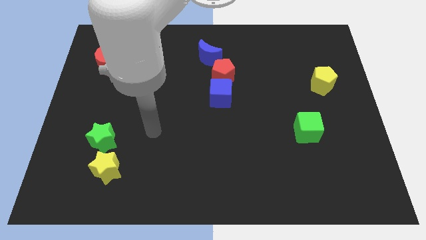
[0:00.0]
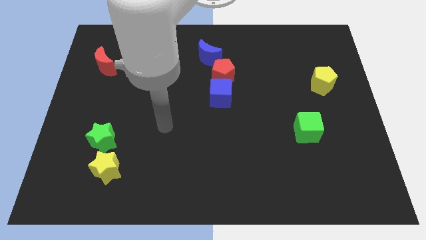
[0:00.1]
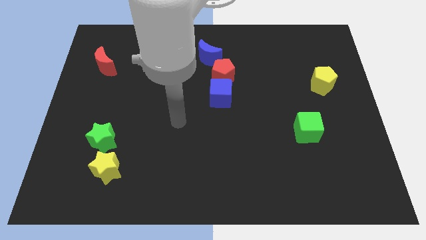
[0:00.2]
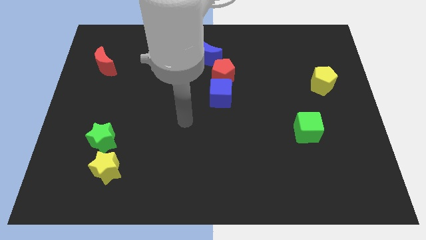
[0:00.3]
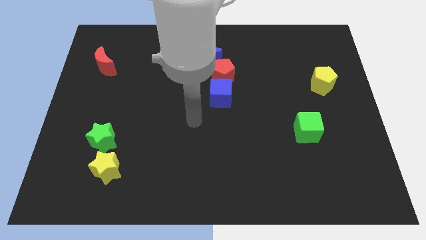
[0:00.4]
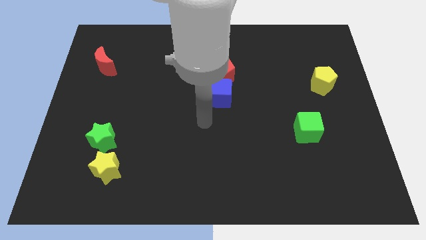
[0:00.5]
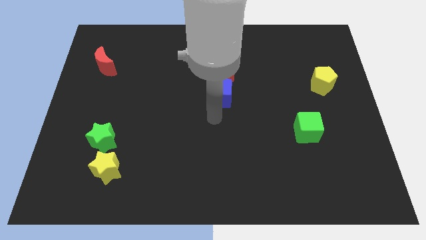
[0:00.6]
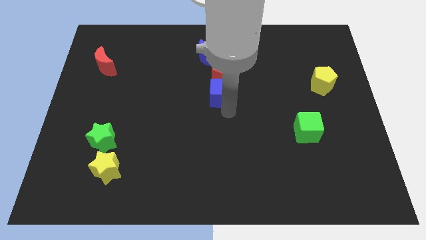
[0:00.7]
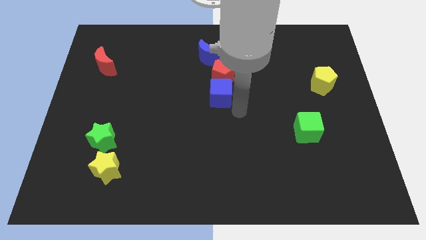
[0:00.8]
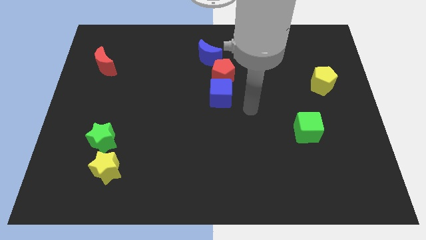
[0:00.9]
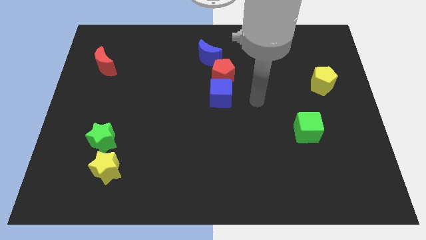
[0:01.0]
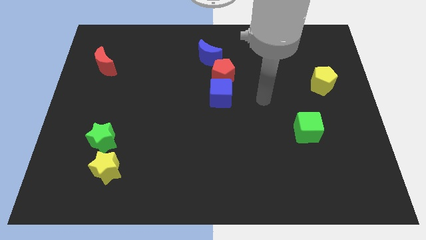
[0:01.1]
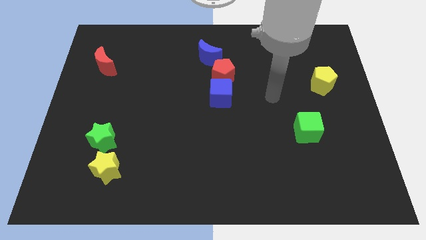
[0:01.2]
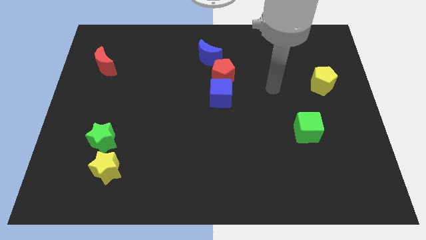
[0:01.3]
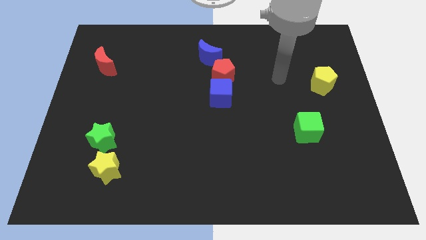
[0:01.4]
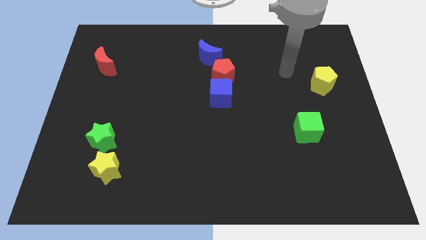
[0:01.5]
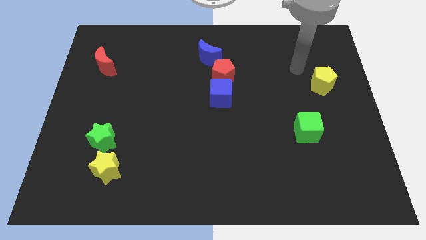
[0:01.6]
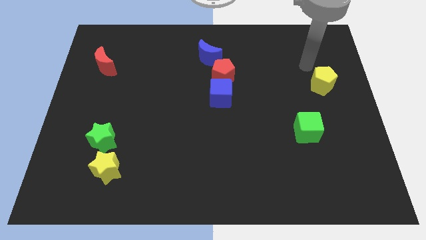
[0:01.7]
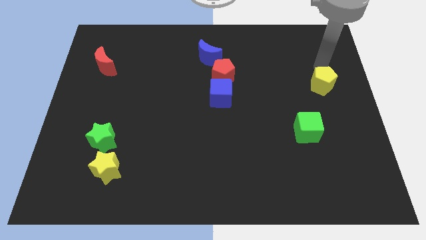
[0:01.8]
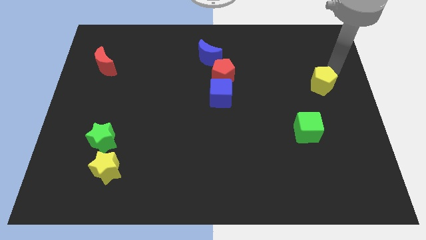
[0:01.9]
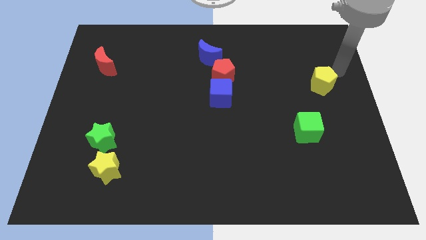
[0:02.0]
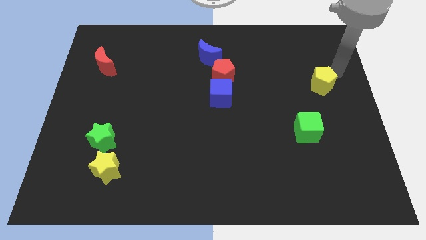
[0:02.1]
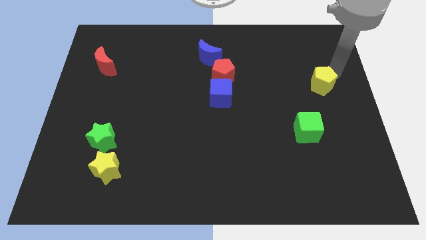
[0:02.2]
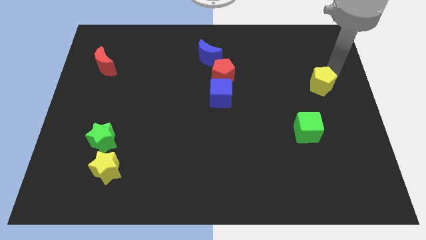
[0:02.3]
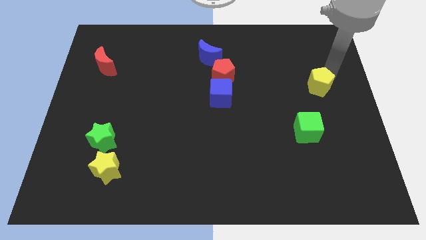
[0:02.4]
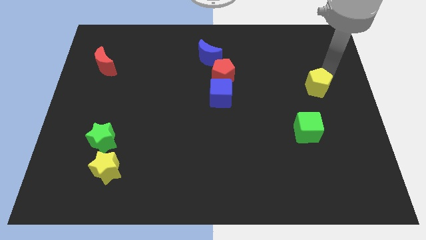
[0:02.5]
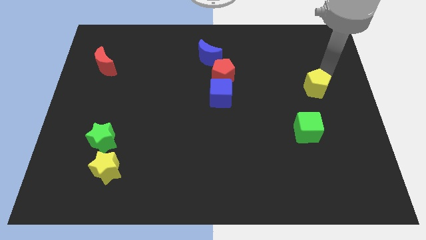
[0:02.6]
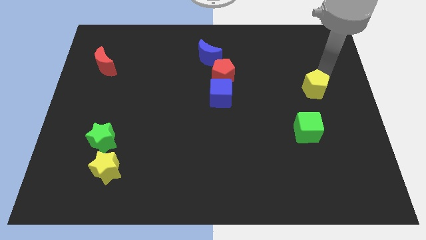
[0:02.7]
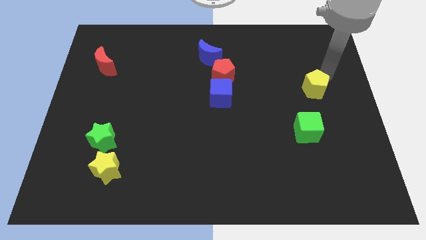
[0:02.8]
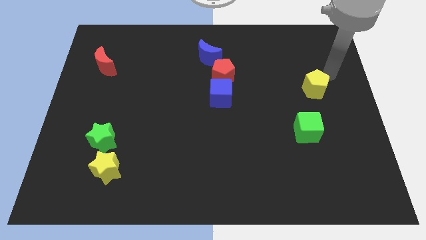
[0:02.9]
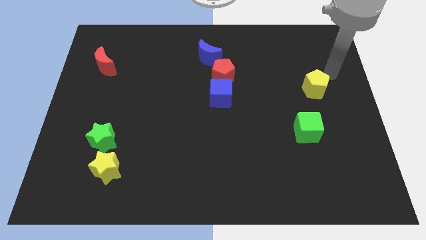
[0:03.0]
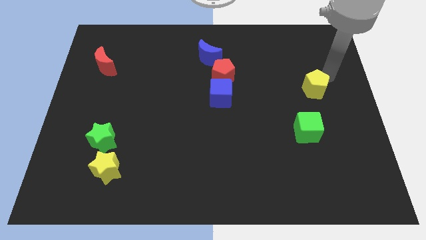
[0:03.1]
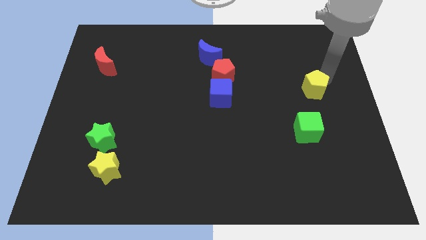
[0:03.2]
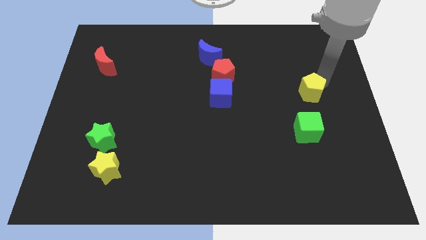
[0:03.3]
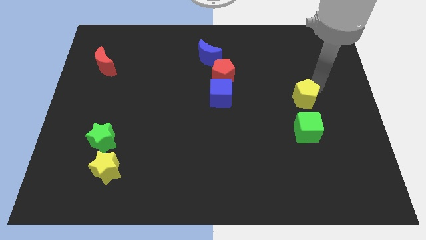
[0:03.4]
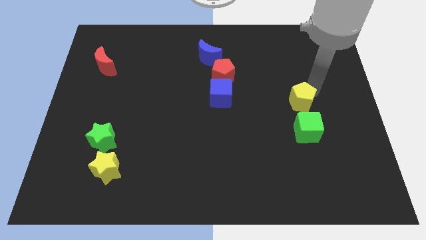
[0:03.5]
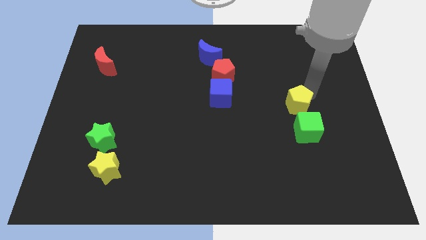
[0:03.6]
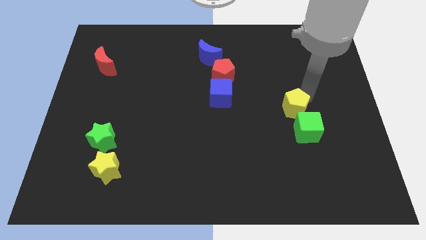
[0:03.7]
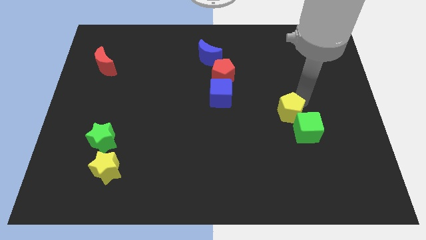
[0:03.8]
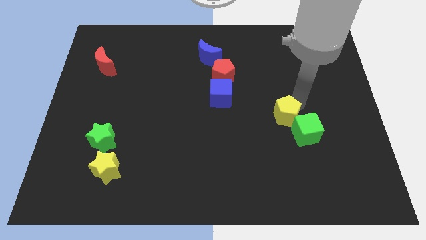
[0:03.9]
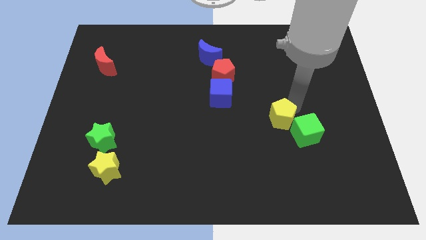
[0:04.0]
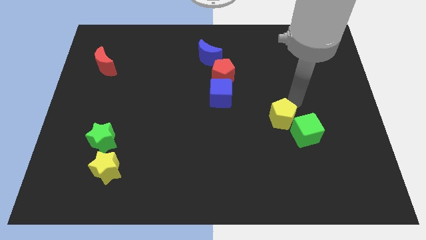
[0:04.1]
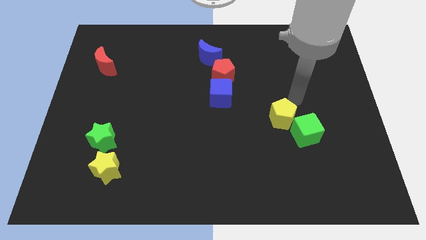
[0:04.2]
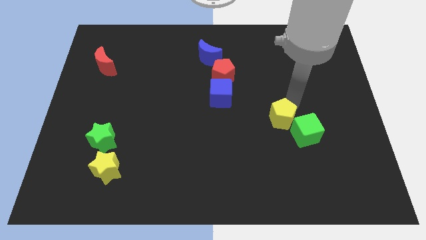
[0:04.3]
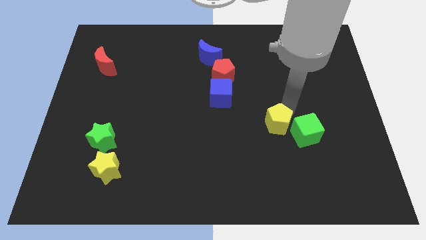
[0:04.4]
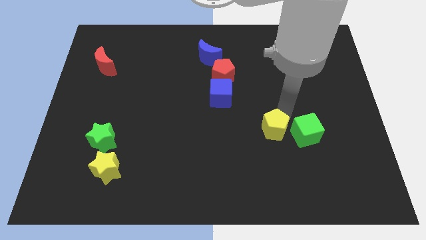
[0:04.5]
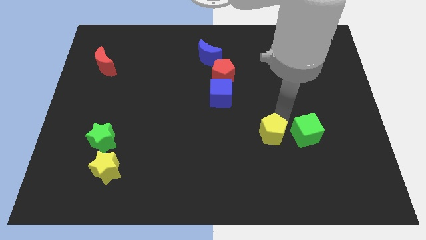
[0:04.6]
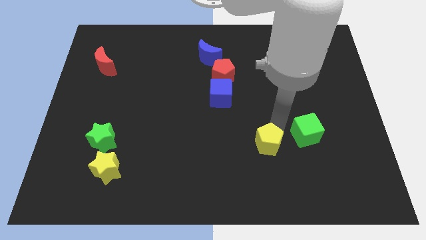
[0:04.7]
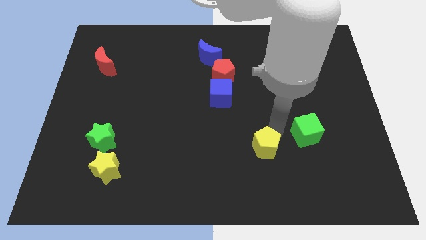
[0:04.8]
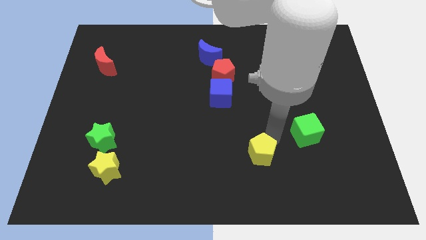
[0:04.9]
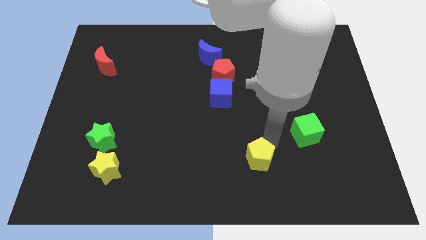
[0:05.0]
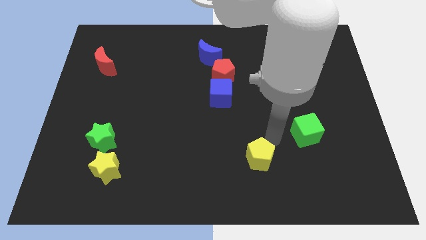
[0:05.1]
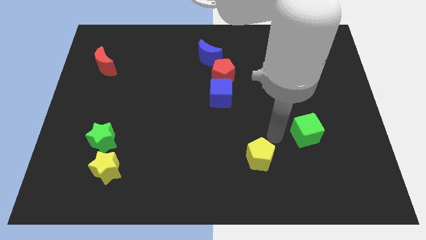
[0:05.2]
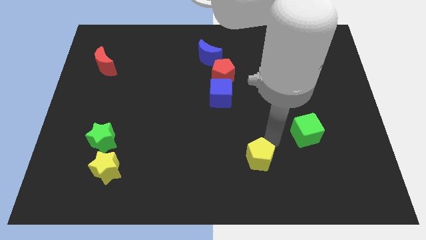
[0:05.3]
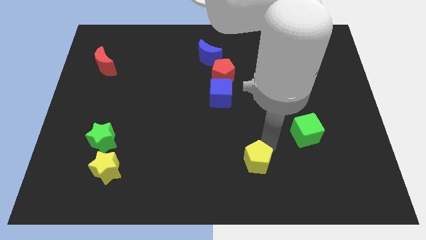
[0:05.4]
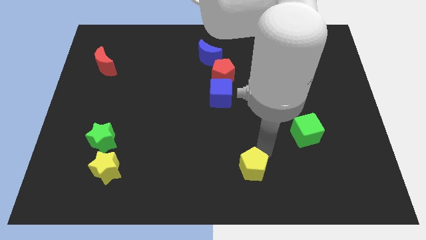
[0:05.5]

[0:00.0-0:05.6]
move the yellow pentagon to the bottom

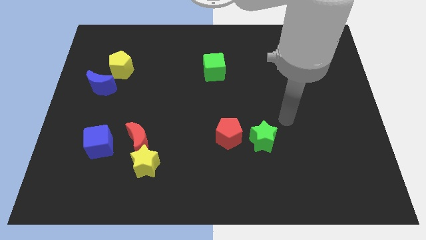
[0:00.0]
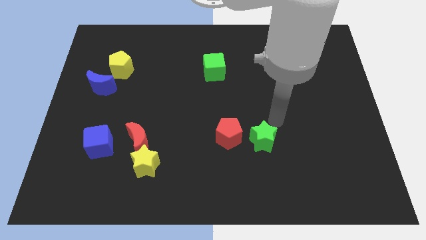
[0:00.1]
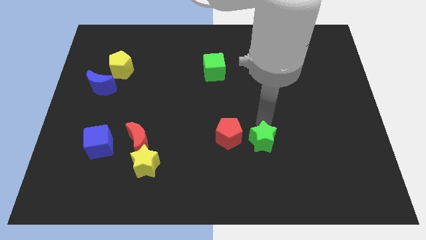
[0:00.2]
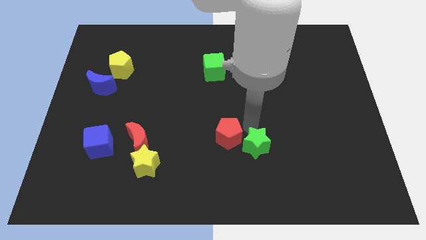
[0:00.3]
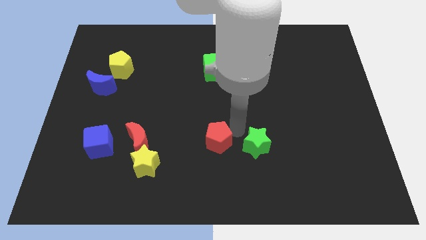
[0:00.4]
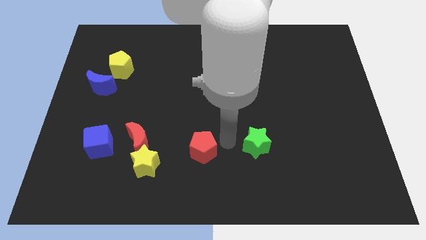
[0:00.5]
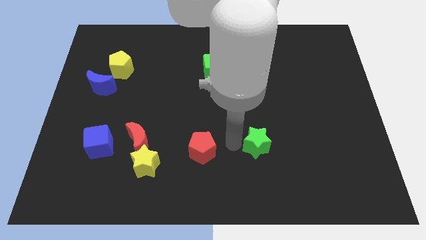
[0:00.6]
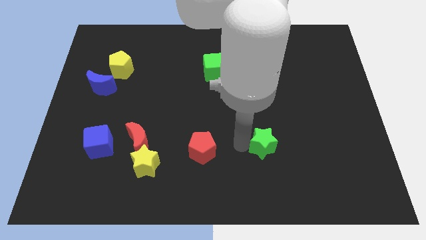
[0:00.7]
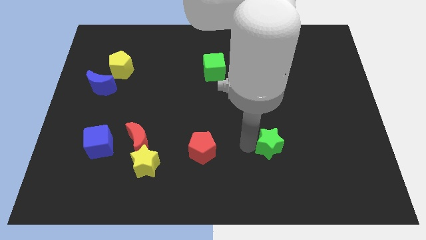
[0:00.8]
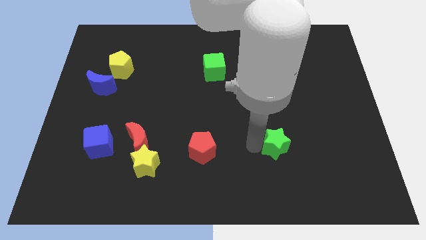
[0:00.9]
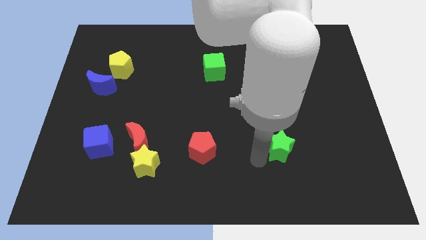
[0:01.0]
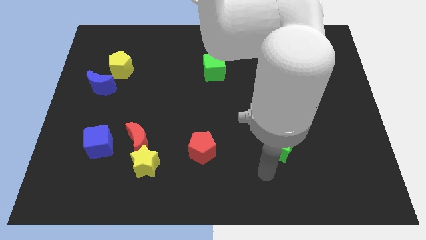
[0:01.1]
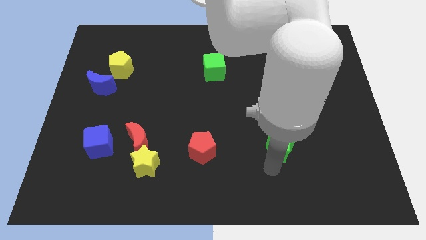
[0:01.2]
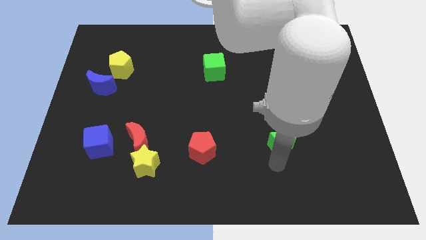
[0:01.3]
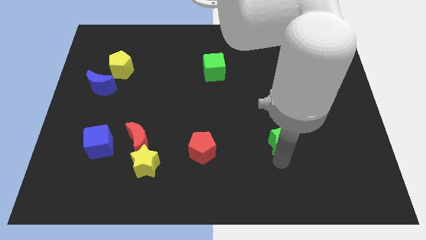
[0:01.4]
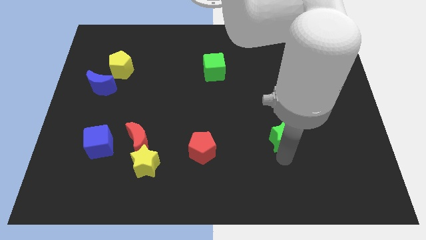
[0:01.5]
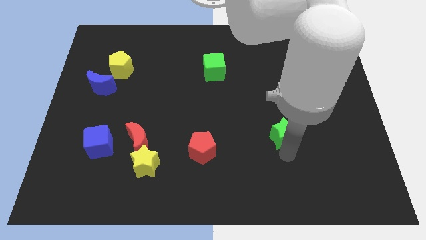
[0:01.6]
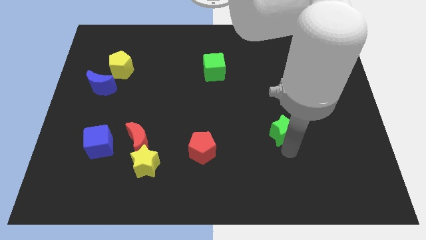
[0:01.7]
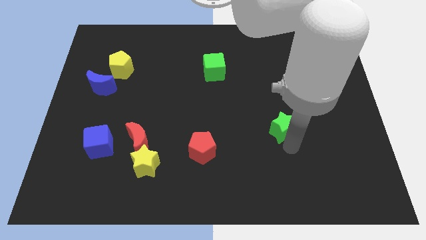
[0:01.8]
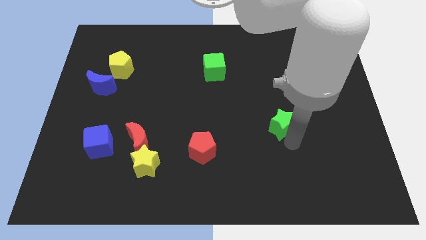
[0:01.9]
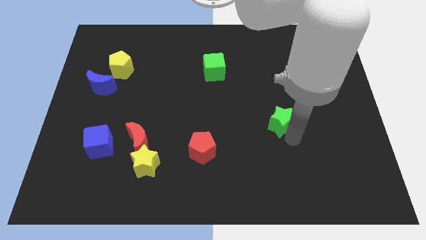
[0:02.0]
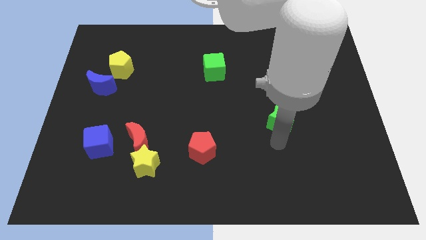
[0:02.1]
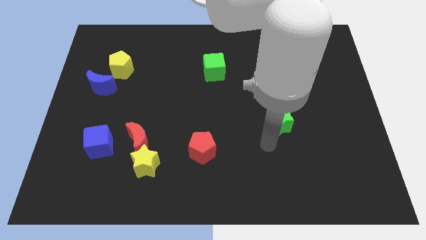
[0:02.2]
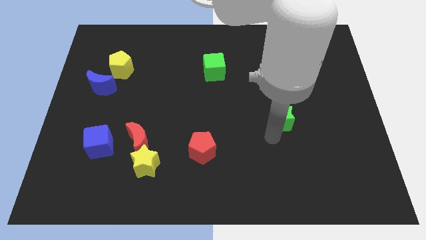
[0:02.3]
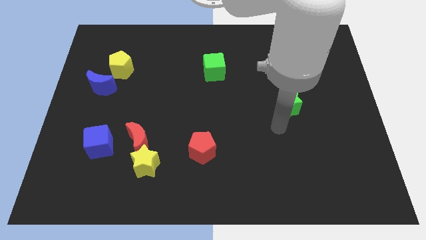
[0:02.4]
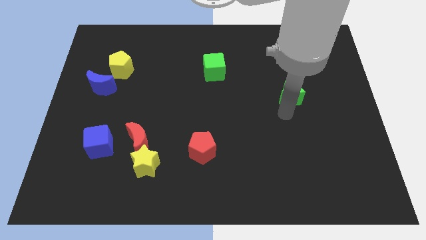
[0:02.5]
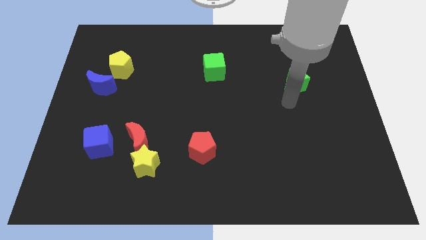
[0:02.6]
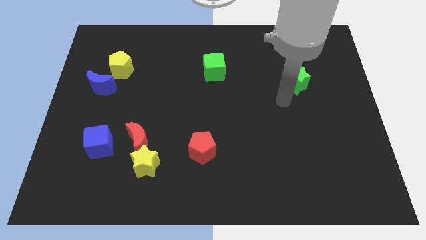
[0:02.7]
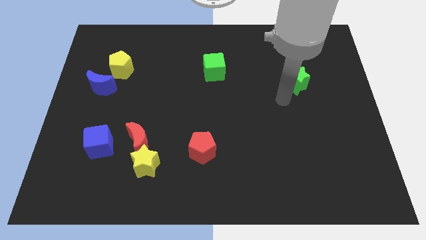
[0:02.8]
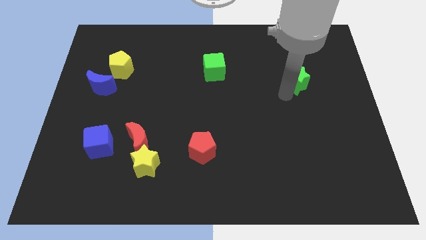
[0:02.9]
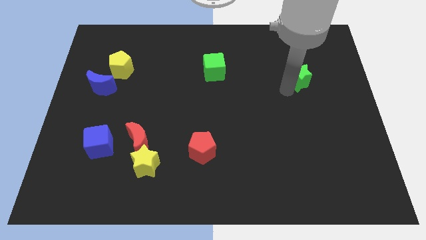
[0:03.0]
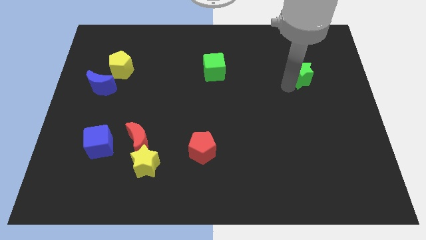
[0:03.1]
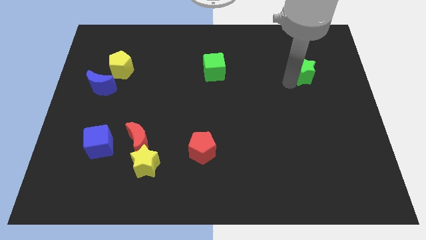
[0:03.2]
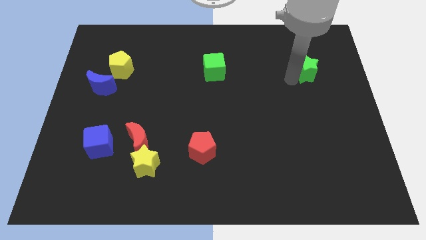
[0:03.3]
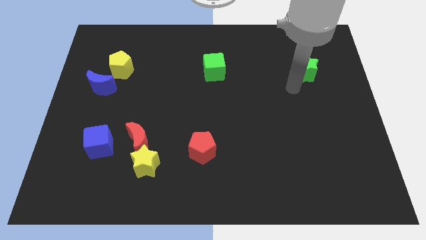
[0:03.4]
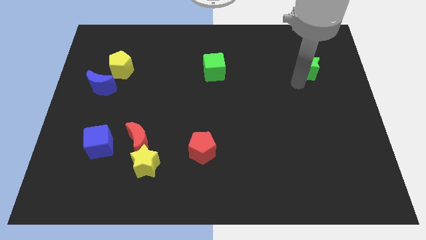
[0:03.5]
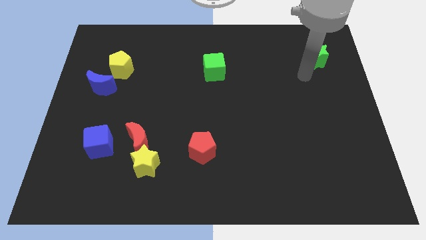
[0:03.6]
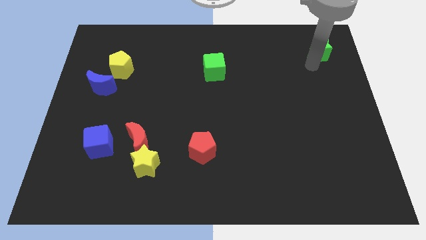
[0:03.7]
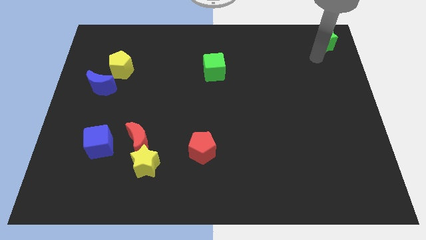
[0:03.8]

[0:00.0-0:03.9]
slide the green star to the top right
